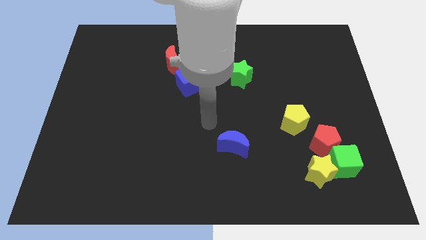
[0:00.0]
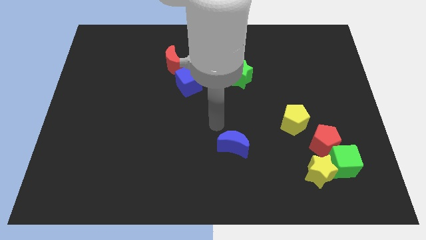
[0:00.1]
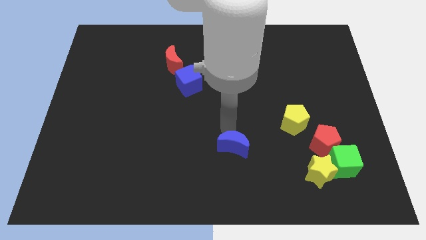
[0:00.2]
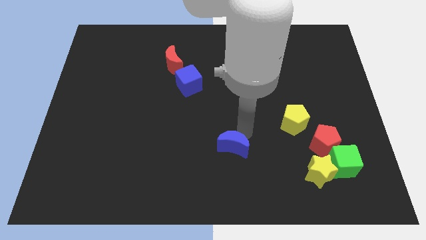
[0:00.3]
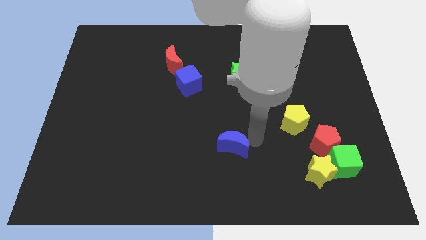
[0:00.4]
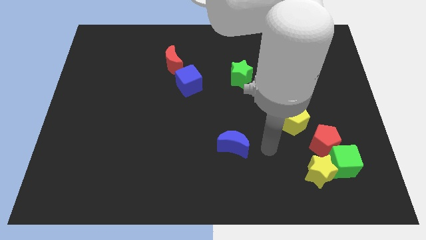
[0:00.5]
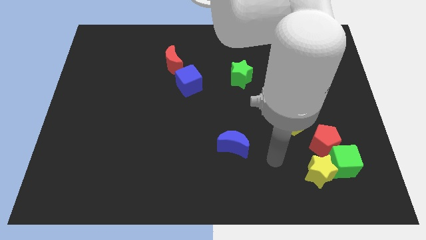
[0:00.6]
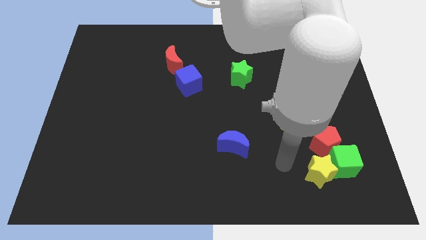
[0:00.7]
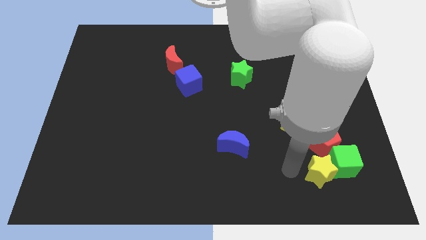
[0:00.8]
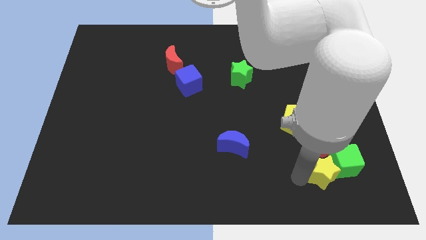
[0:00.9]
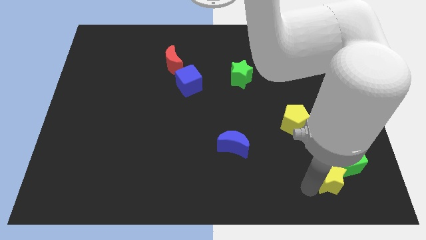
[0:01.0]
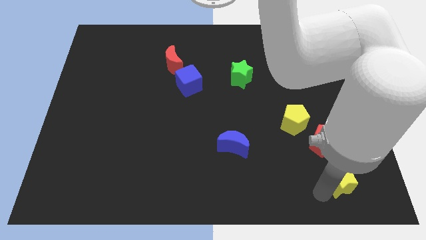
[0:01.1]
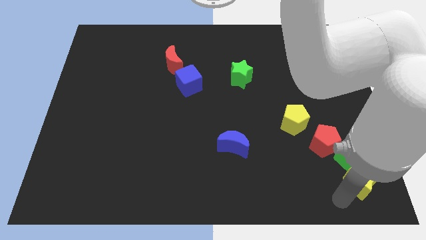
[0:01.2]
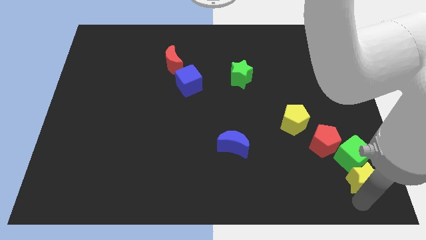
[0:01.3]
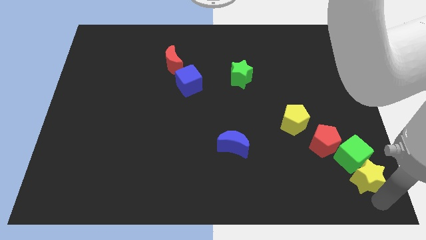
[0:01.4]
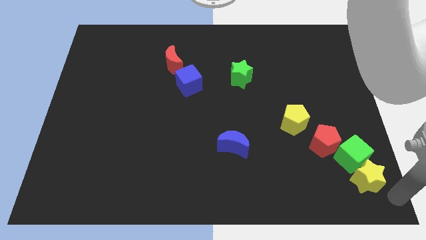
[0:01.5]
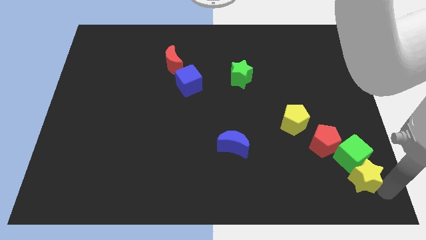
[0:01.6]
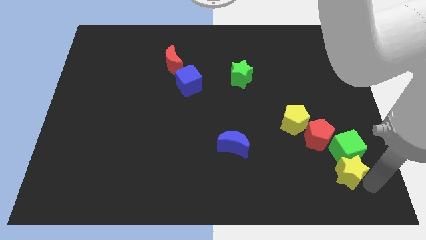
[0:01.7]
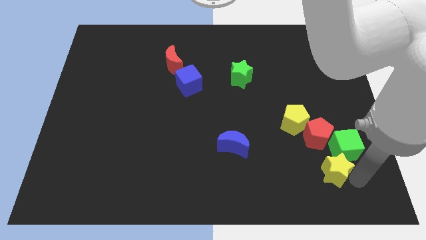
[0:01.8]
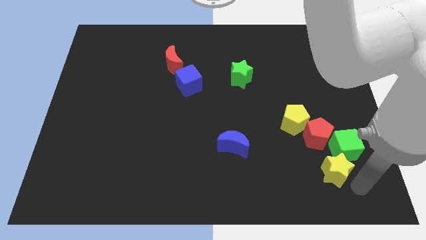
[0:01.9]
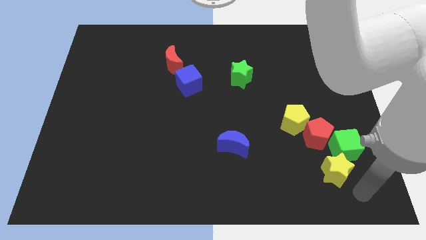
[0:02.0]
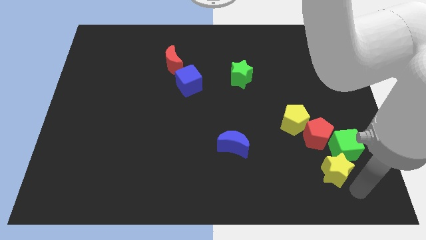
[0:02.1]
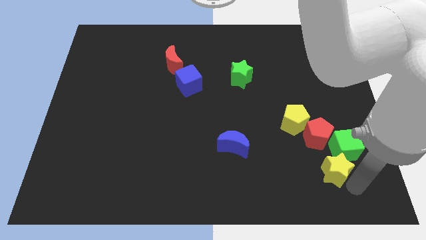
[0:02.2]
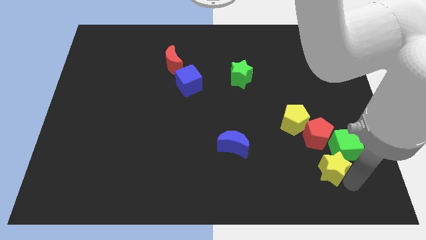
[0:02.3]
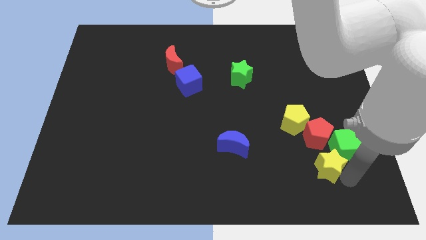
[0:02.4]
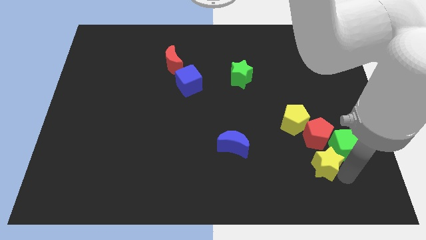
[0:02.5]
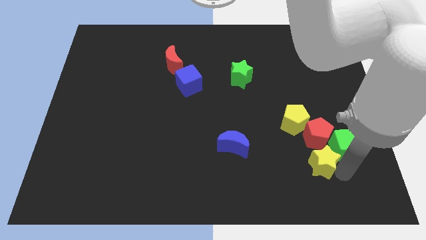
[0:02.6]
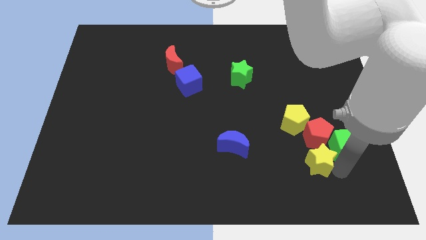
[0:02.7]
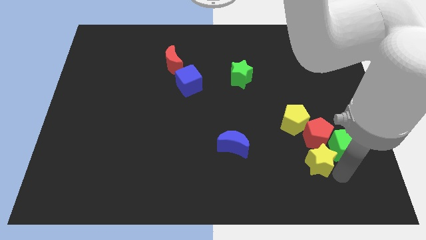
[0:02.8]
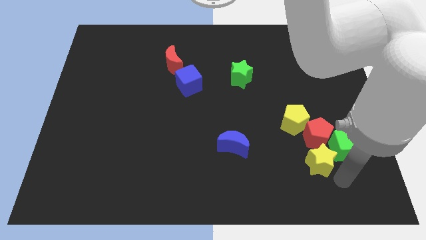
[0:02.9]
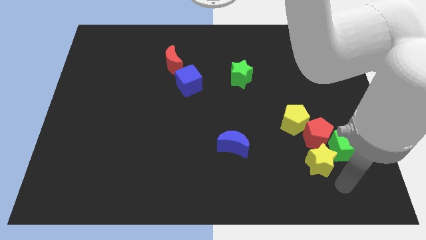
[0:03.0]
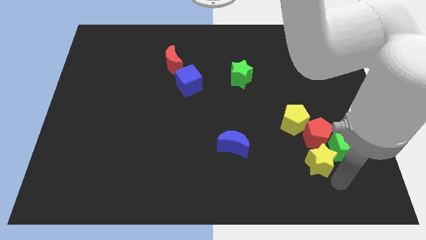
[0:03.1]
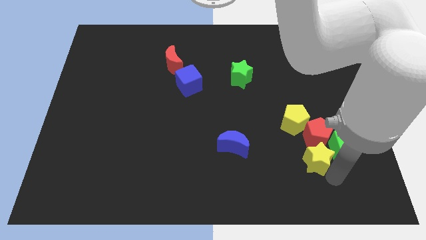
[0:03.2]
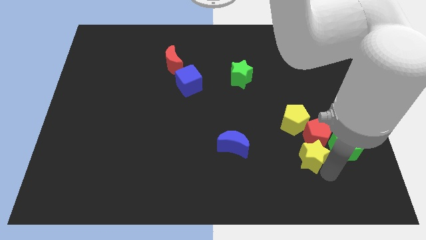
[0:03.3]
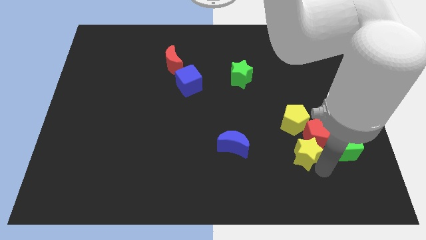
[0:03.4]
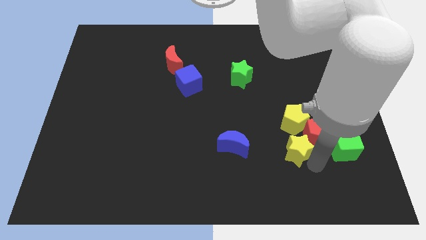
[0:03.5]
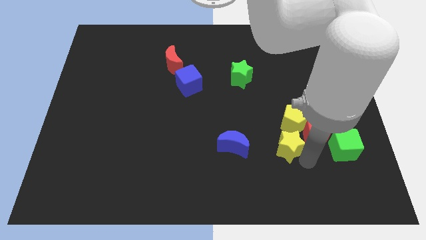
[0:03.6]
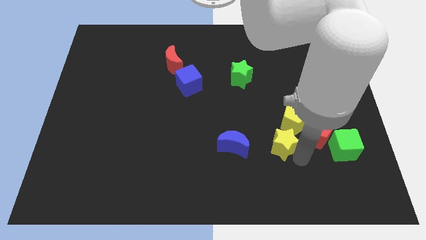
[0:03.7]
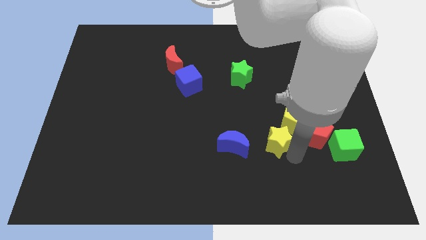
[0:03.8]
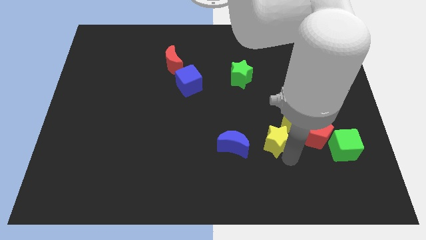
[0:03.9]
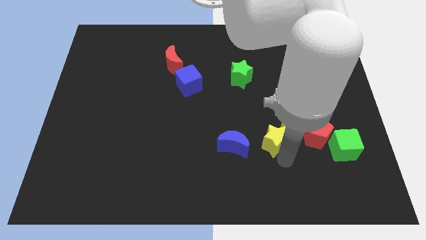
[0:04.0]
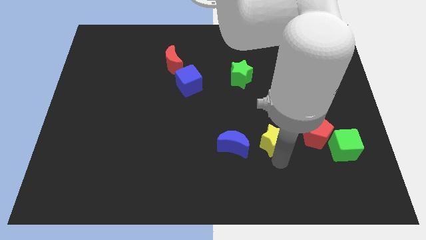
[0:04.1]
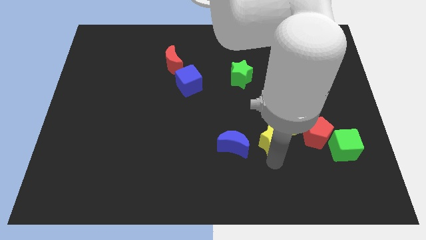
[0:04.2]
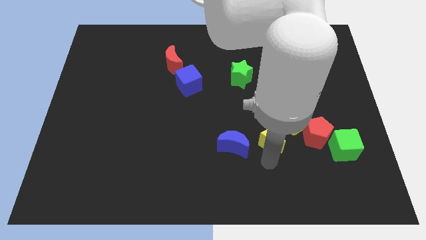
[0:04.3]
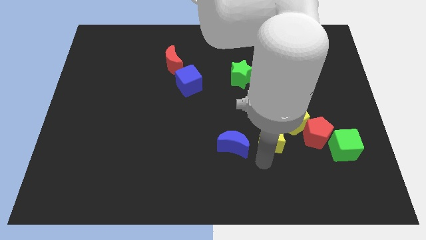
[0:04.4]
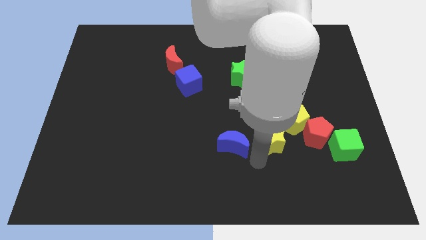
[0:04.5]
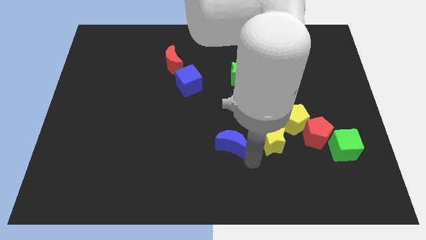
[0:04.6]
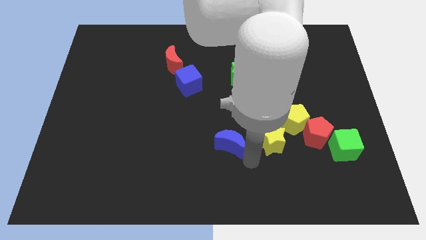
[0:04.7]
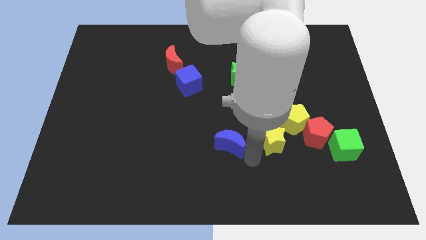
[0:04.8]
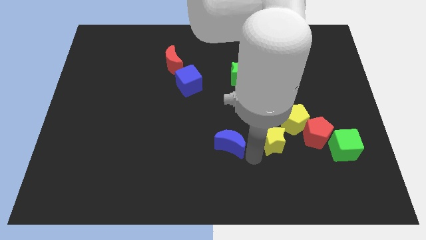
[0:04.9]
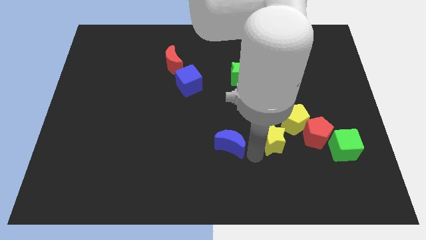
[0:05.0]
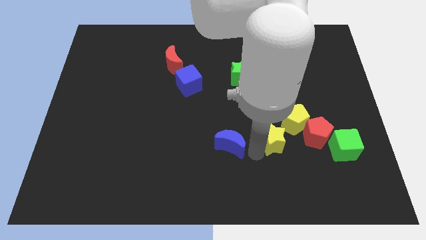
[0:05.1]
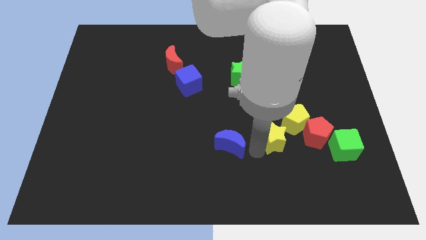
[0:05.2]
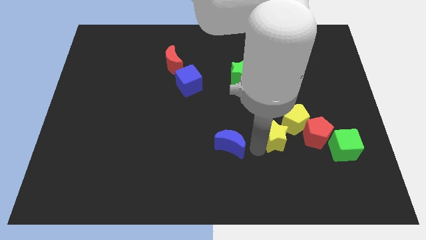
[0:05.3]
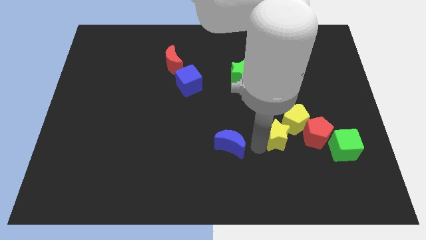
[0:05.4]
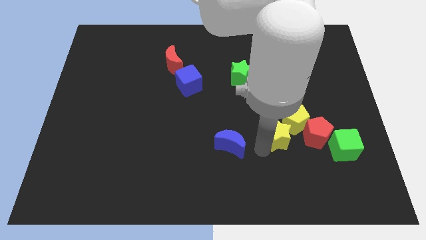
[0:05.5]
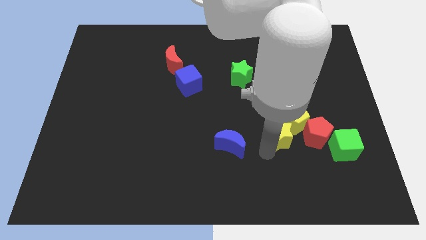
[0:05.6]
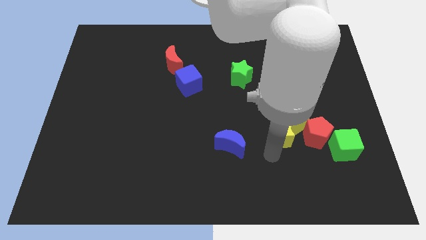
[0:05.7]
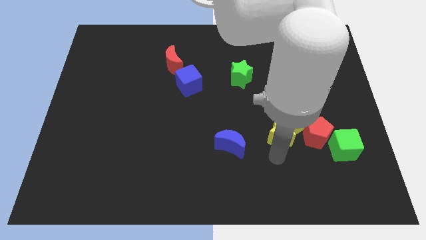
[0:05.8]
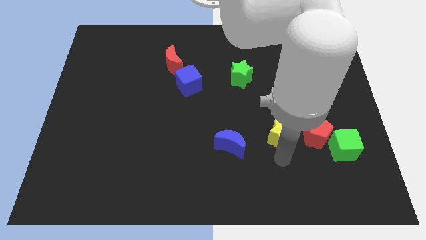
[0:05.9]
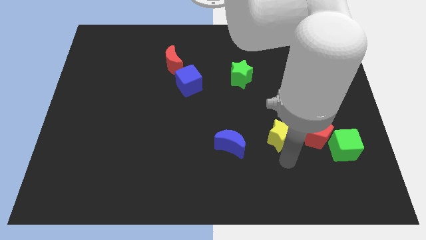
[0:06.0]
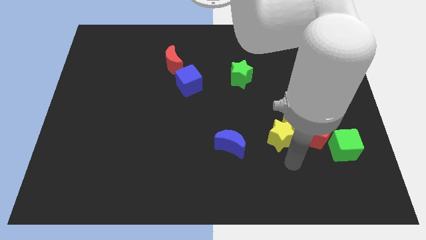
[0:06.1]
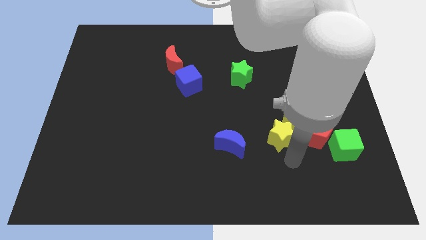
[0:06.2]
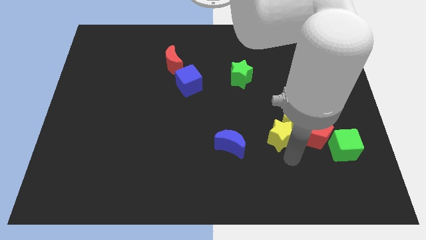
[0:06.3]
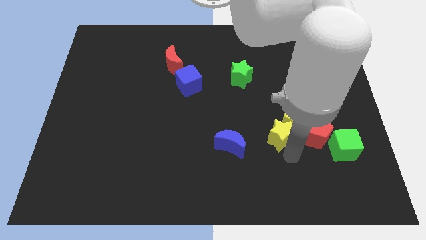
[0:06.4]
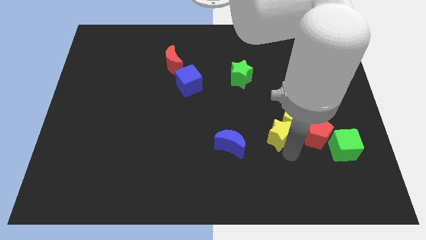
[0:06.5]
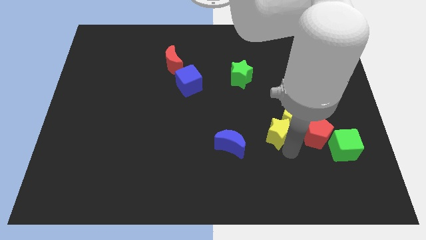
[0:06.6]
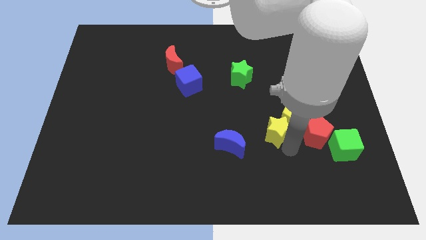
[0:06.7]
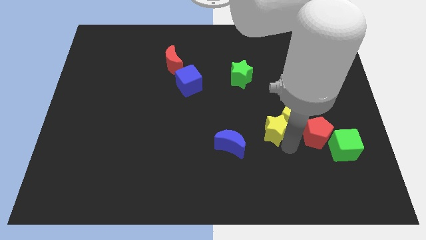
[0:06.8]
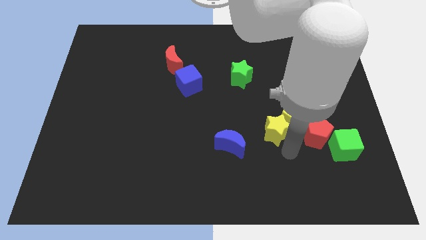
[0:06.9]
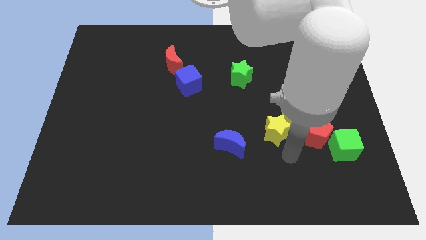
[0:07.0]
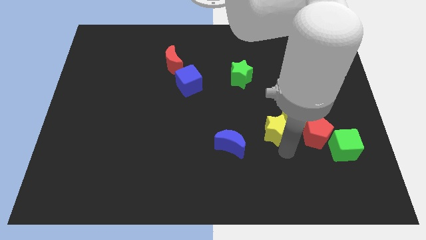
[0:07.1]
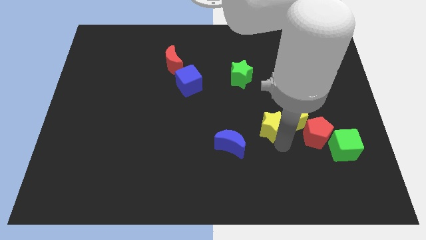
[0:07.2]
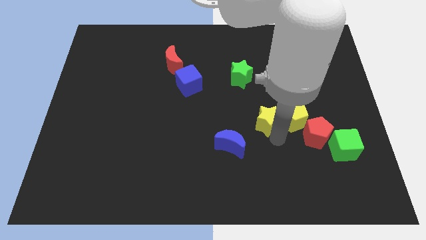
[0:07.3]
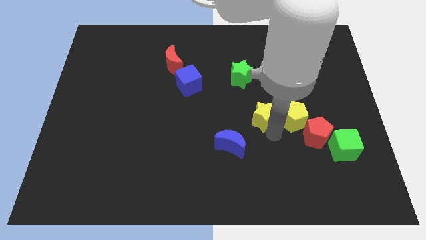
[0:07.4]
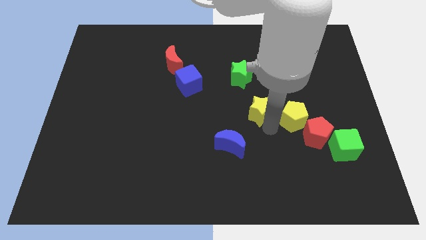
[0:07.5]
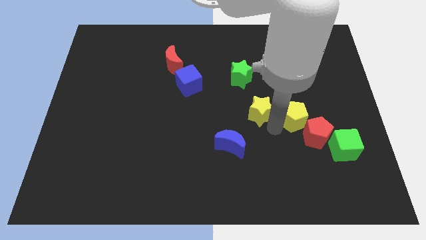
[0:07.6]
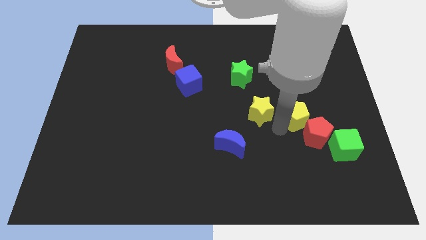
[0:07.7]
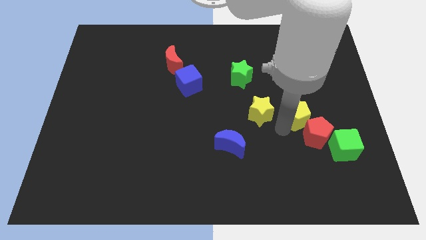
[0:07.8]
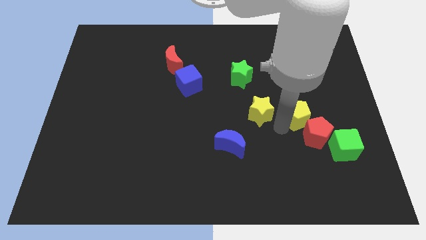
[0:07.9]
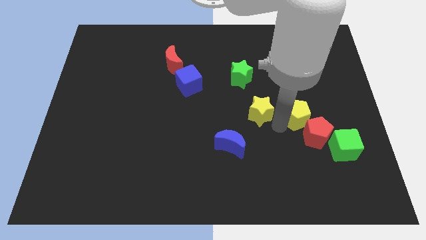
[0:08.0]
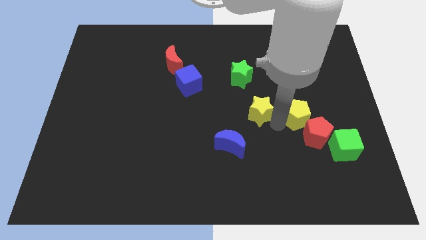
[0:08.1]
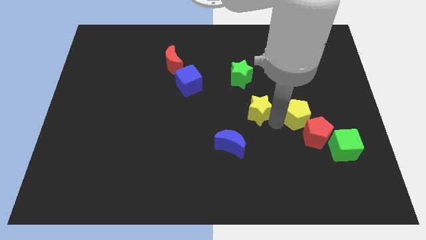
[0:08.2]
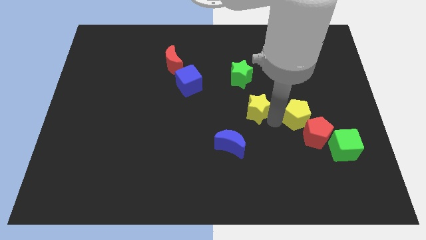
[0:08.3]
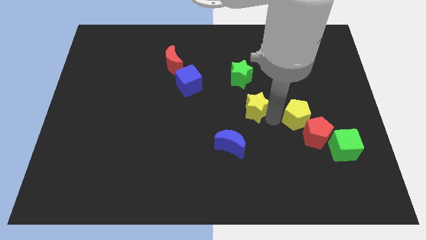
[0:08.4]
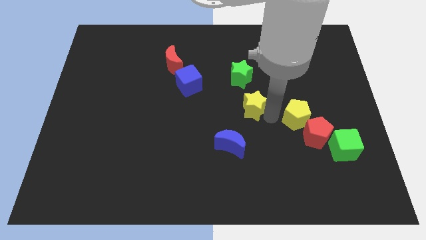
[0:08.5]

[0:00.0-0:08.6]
push the yellow star up and to the left
